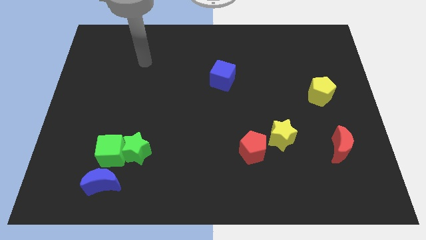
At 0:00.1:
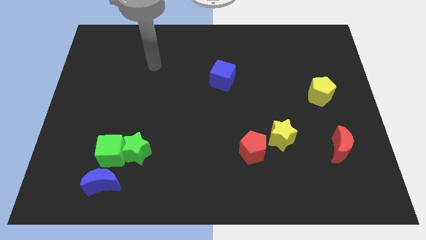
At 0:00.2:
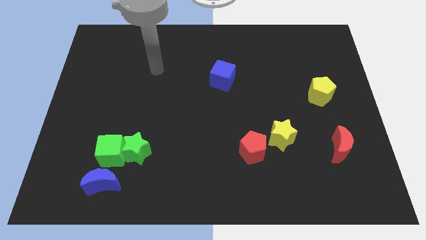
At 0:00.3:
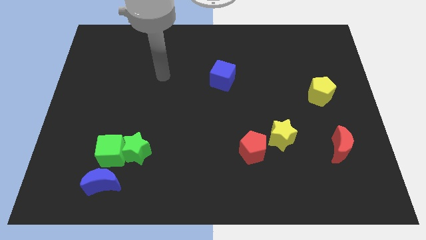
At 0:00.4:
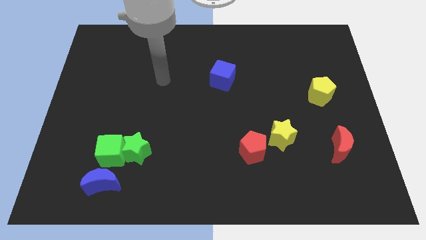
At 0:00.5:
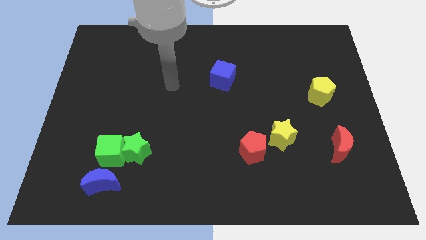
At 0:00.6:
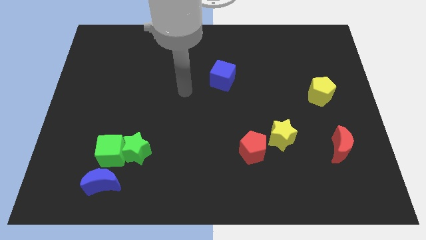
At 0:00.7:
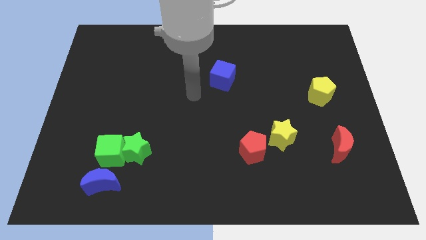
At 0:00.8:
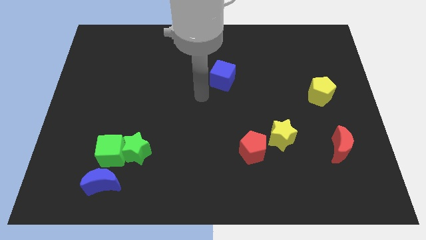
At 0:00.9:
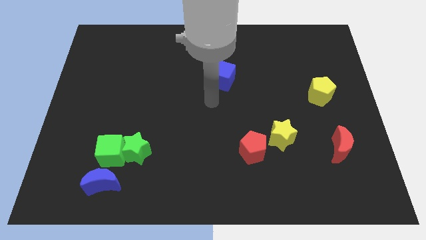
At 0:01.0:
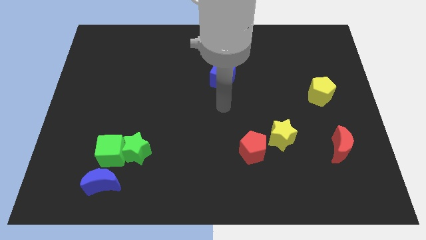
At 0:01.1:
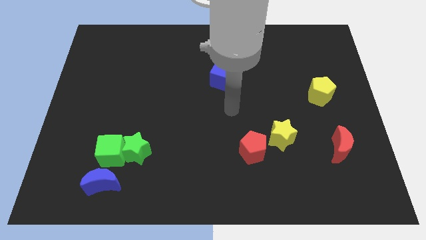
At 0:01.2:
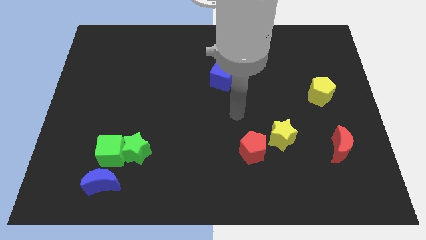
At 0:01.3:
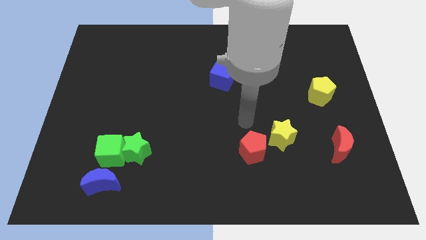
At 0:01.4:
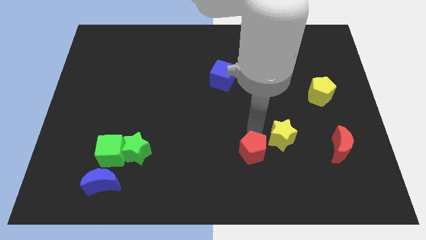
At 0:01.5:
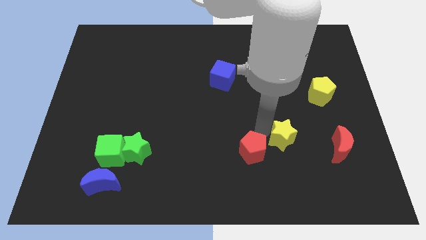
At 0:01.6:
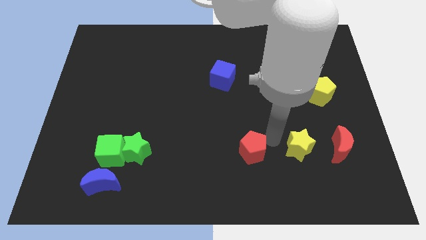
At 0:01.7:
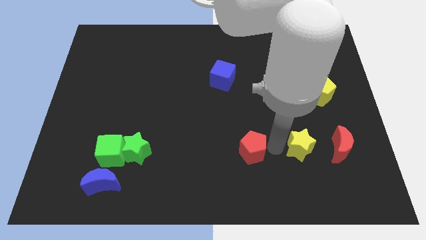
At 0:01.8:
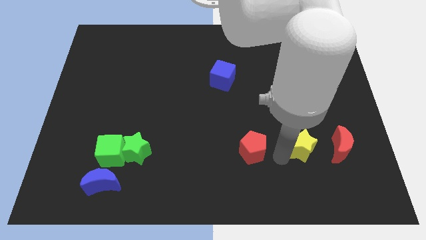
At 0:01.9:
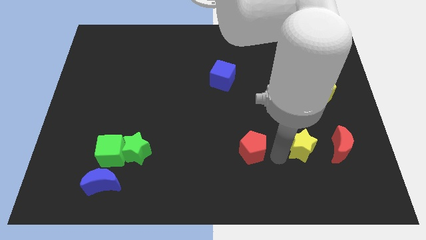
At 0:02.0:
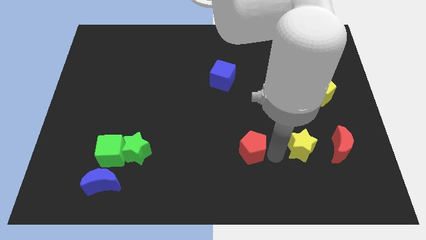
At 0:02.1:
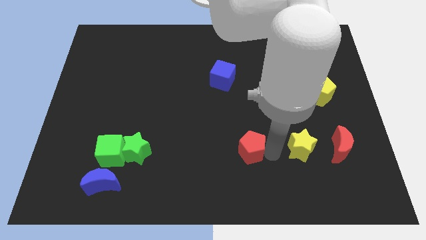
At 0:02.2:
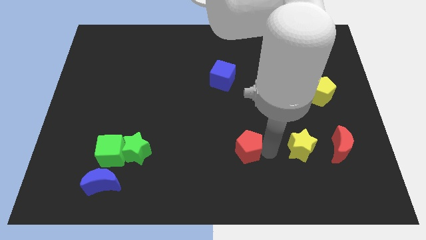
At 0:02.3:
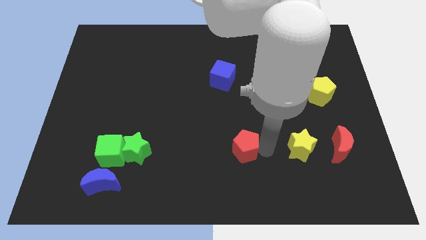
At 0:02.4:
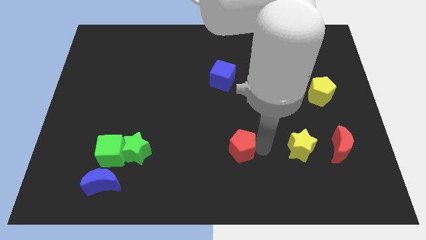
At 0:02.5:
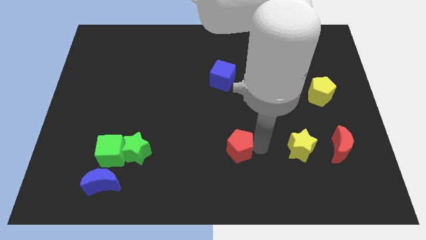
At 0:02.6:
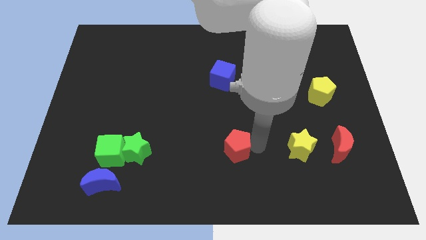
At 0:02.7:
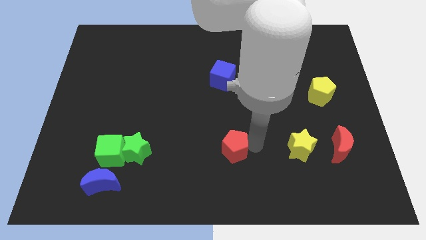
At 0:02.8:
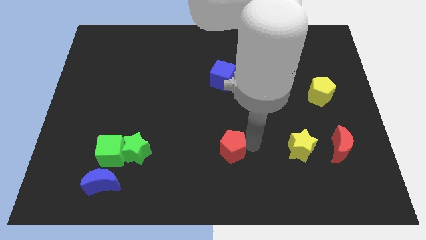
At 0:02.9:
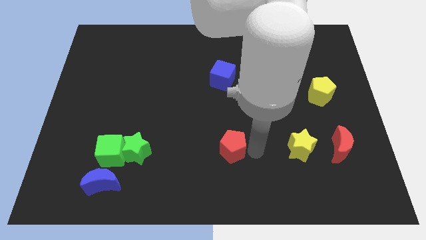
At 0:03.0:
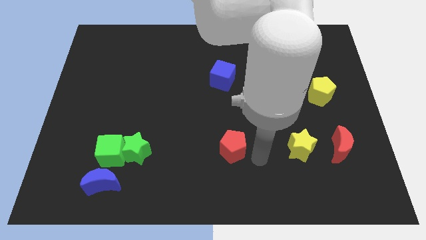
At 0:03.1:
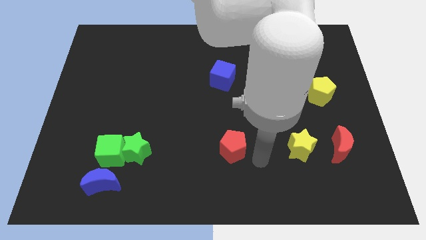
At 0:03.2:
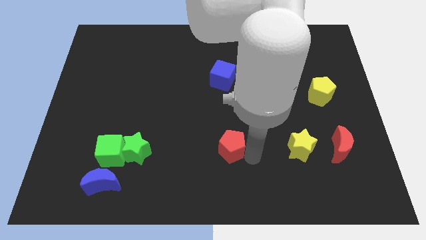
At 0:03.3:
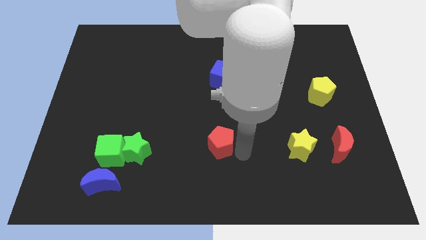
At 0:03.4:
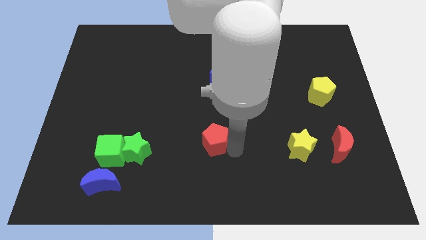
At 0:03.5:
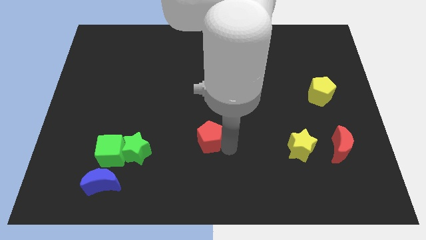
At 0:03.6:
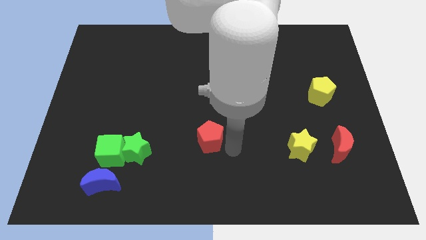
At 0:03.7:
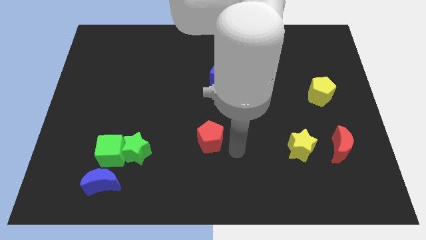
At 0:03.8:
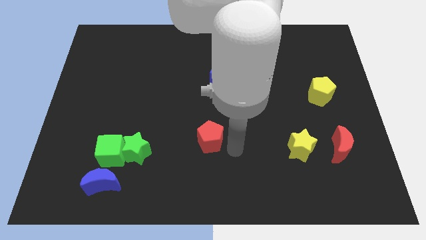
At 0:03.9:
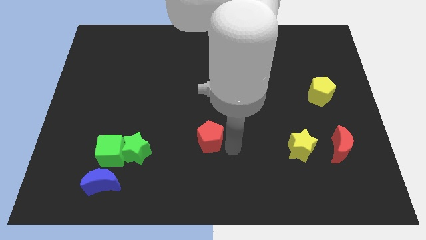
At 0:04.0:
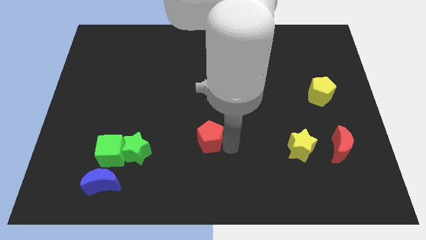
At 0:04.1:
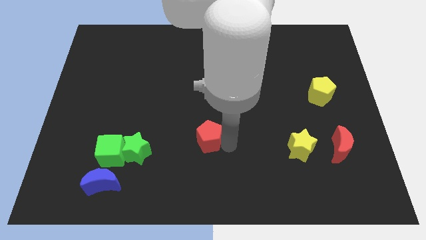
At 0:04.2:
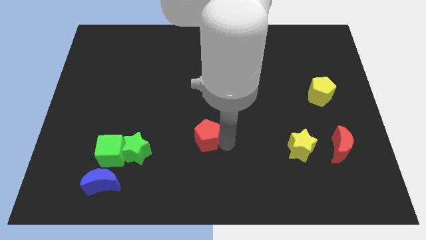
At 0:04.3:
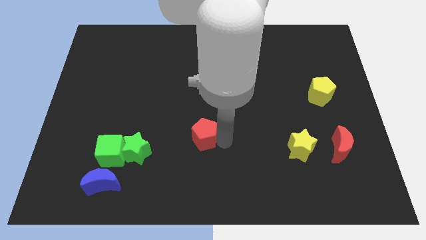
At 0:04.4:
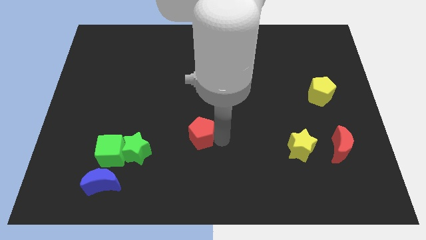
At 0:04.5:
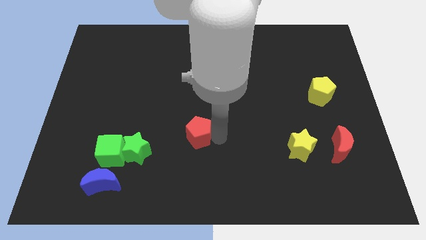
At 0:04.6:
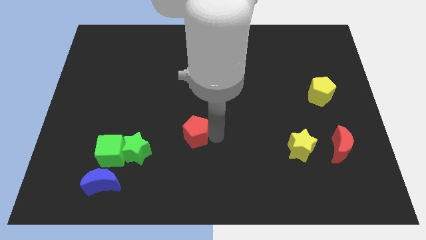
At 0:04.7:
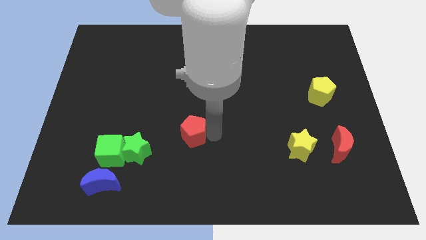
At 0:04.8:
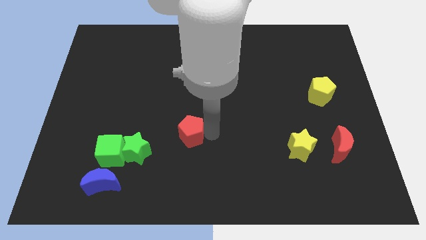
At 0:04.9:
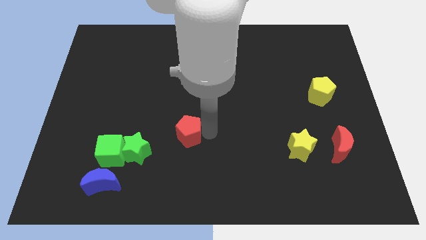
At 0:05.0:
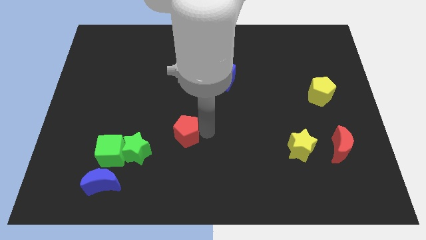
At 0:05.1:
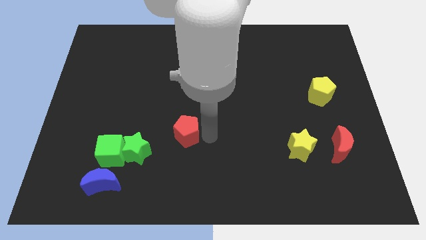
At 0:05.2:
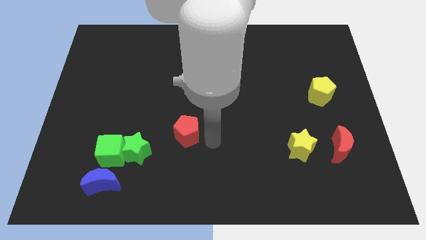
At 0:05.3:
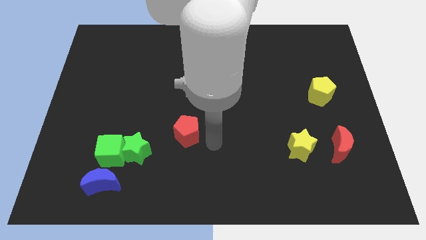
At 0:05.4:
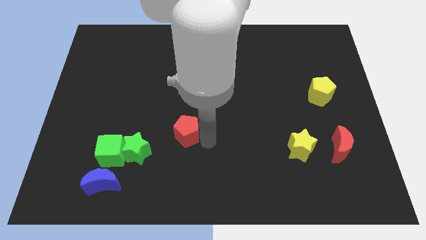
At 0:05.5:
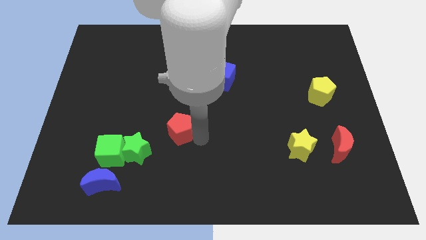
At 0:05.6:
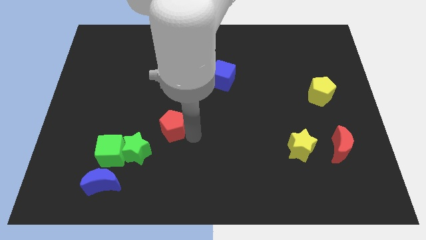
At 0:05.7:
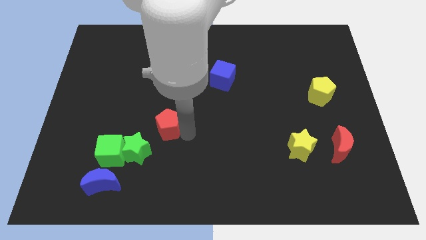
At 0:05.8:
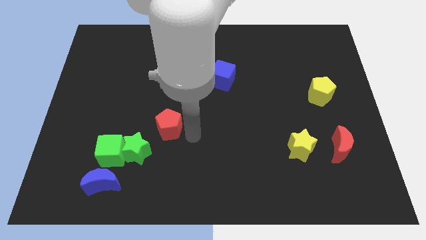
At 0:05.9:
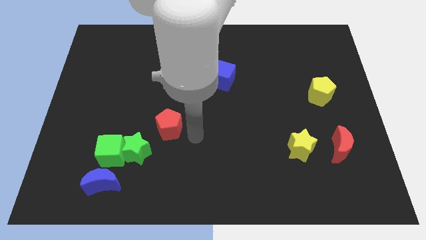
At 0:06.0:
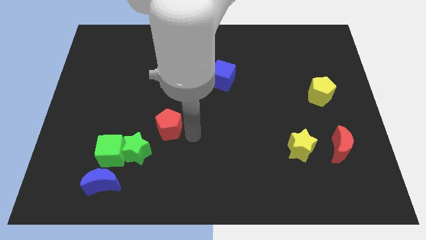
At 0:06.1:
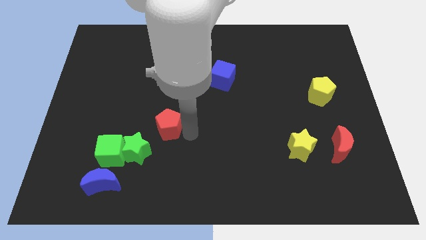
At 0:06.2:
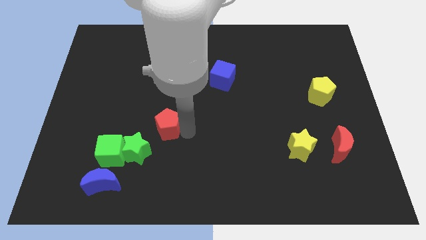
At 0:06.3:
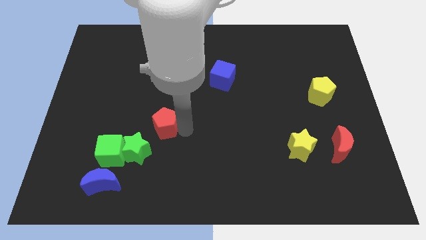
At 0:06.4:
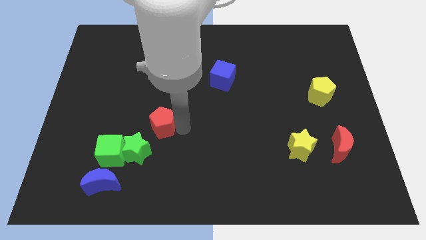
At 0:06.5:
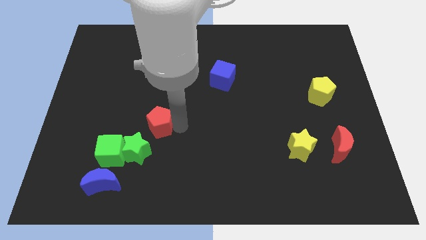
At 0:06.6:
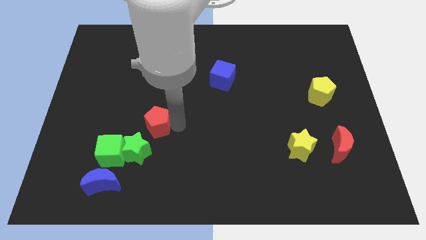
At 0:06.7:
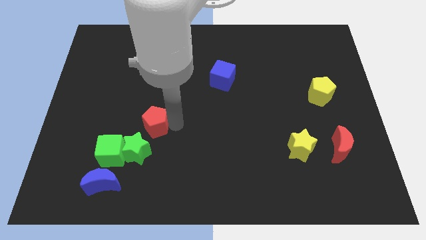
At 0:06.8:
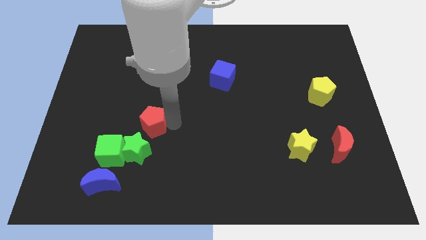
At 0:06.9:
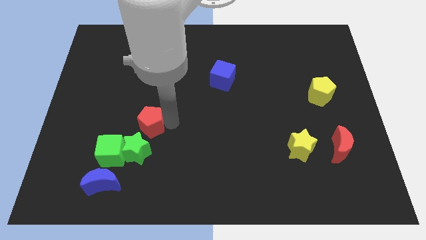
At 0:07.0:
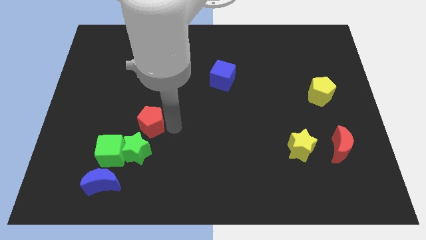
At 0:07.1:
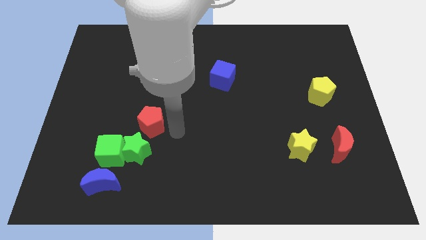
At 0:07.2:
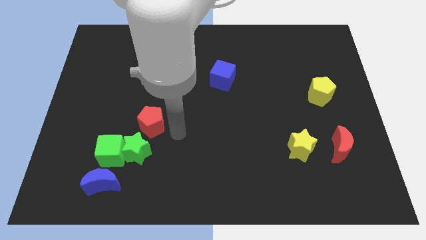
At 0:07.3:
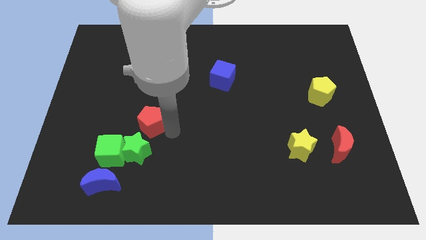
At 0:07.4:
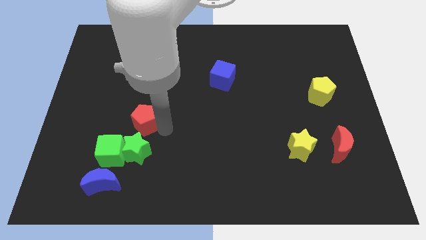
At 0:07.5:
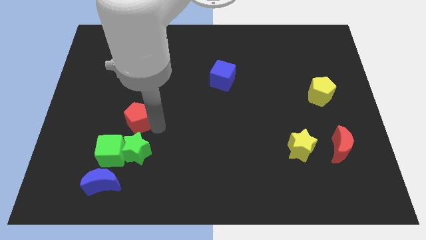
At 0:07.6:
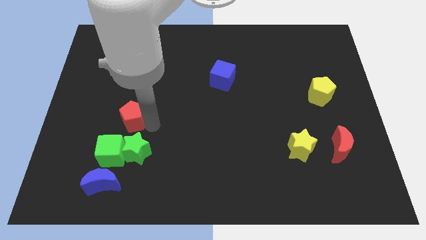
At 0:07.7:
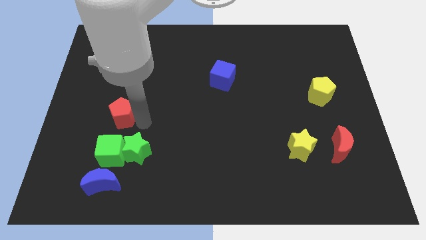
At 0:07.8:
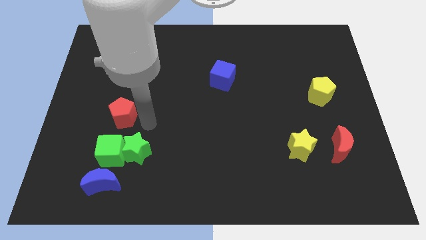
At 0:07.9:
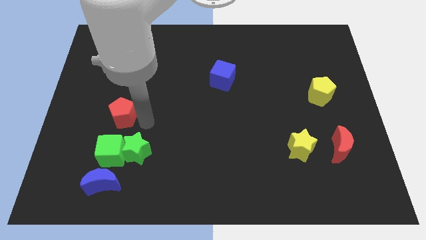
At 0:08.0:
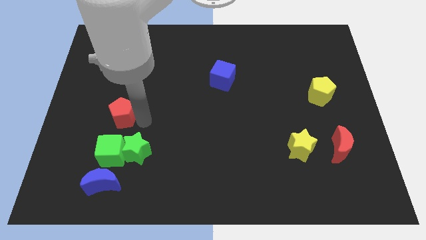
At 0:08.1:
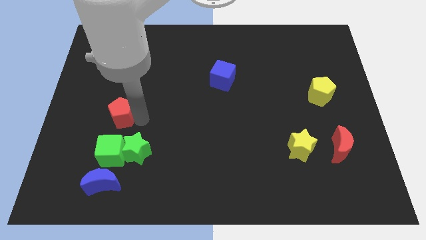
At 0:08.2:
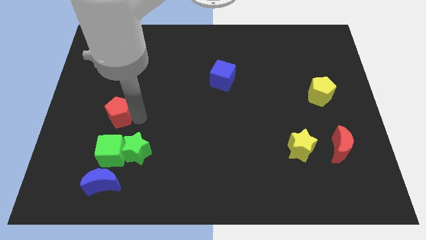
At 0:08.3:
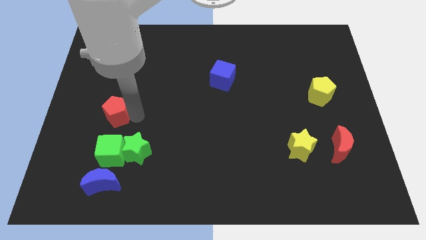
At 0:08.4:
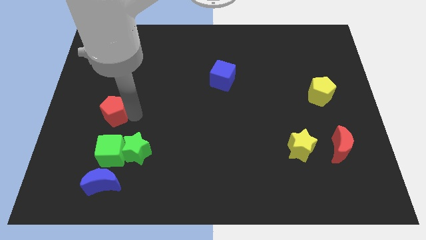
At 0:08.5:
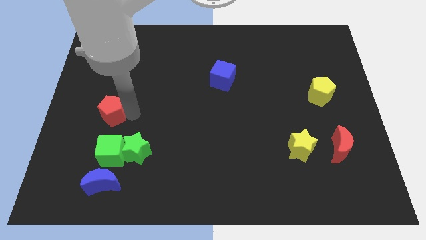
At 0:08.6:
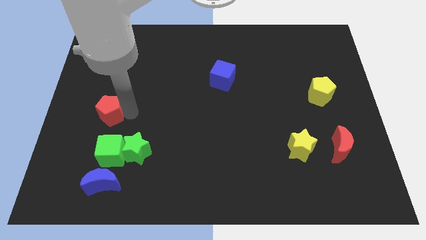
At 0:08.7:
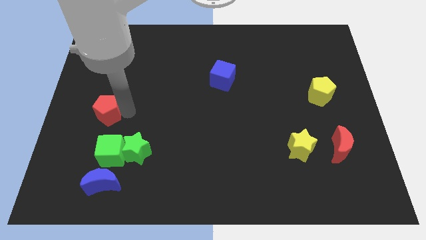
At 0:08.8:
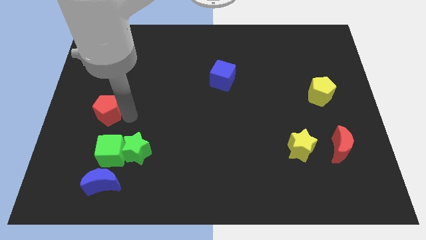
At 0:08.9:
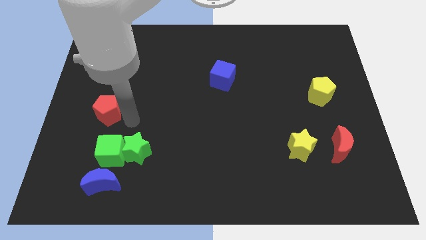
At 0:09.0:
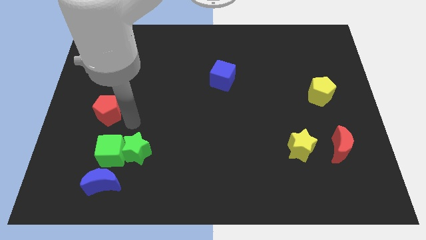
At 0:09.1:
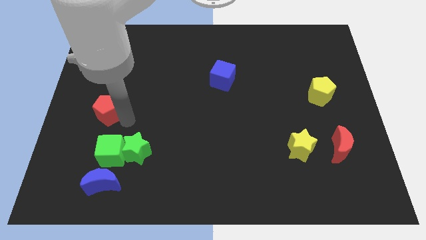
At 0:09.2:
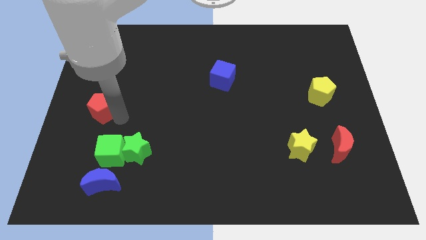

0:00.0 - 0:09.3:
put the red pentagon to the center left
